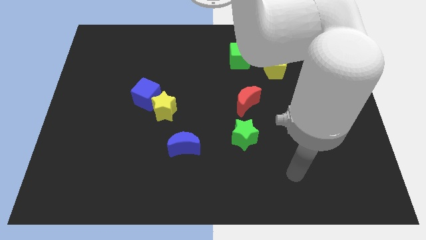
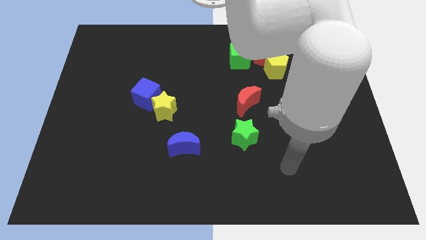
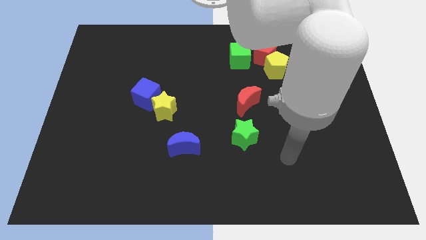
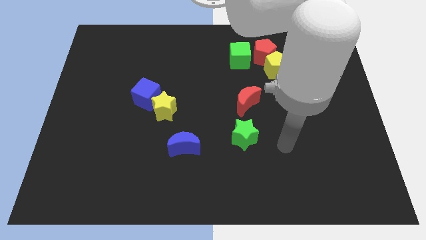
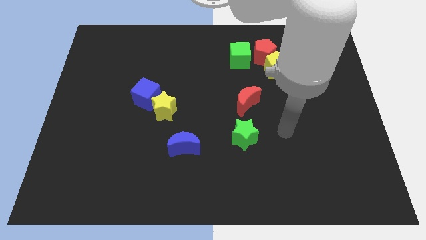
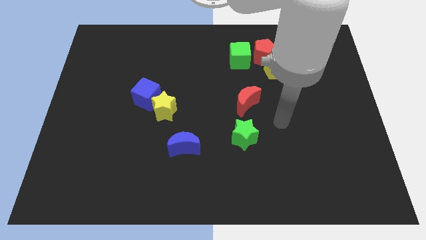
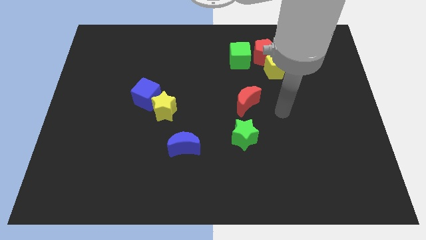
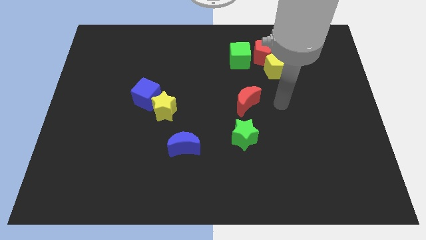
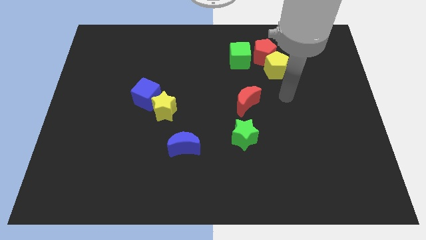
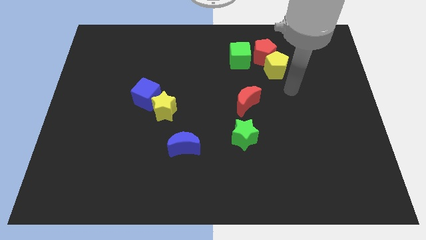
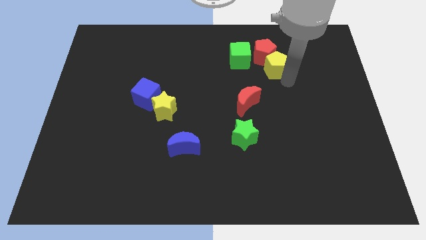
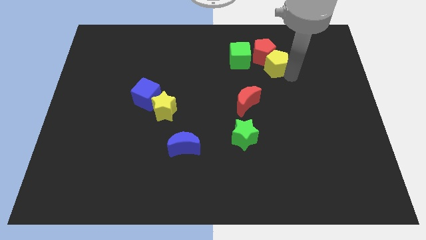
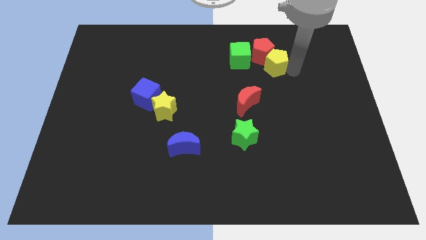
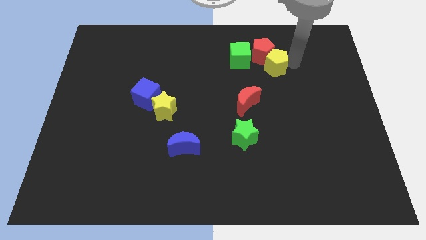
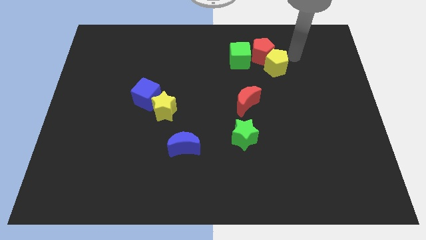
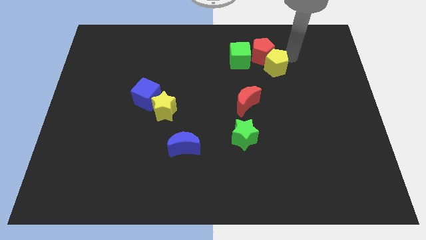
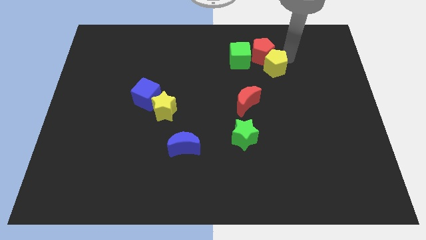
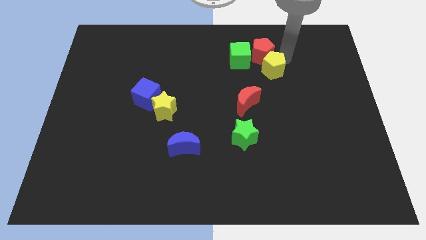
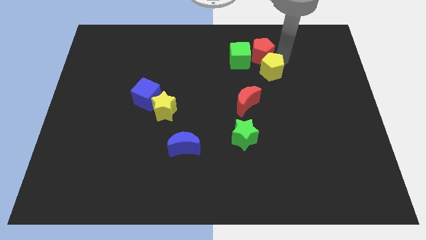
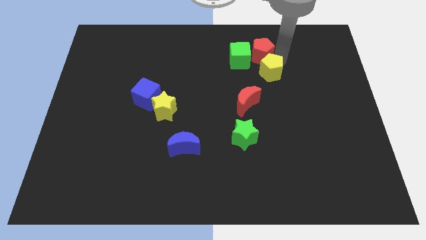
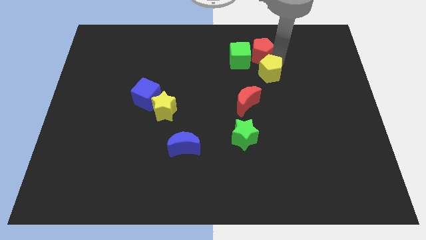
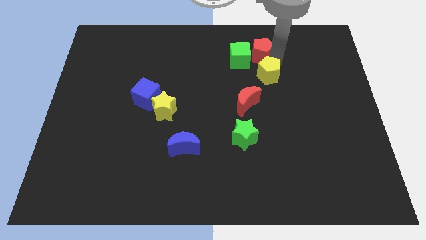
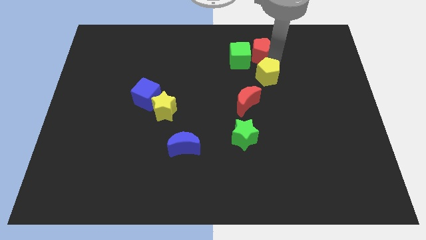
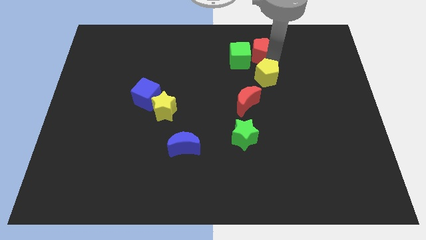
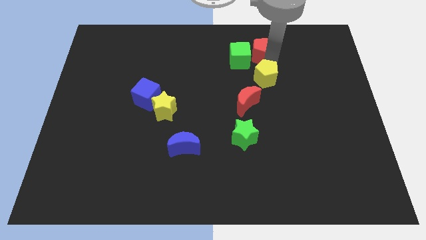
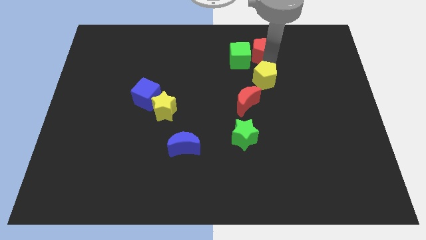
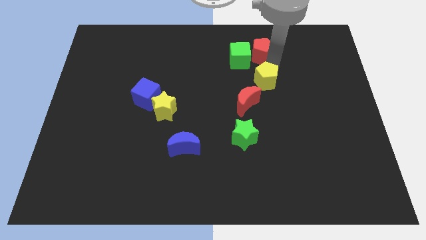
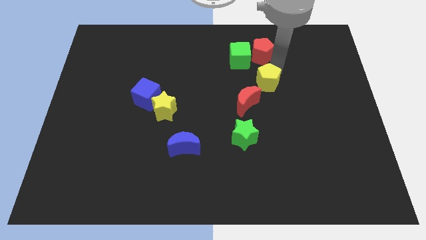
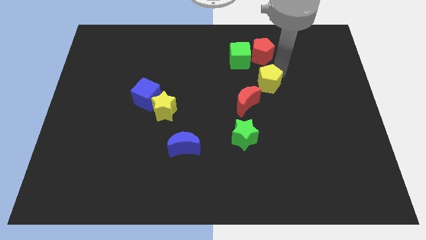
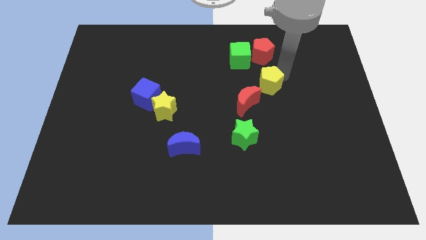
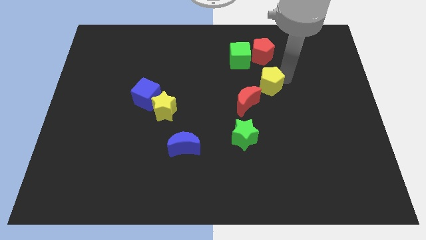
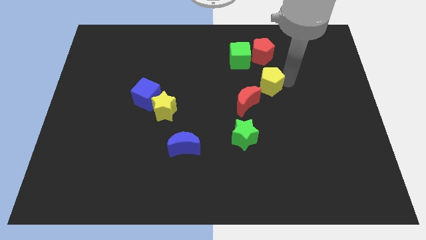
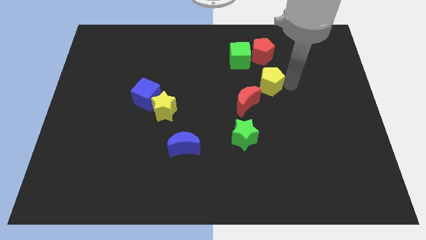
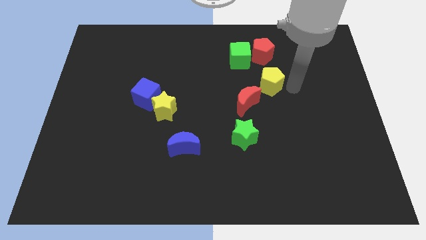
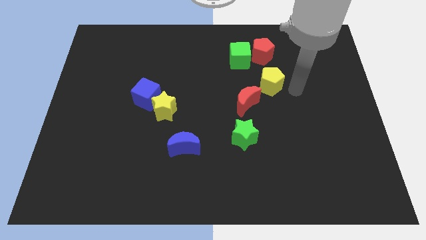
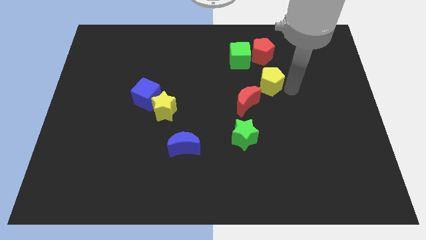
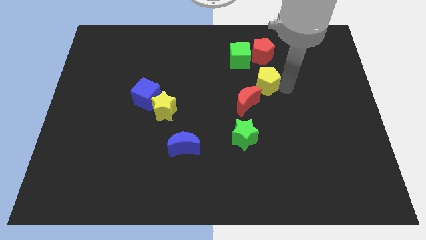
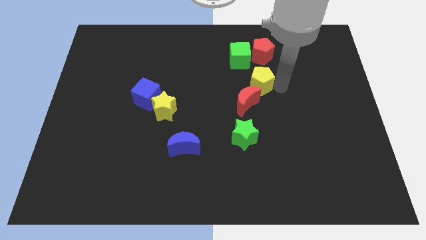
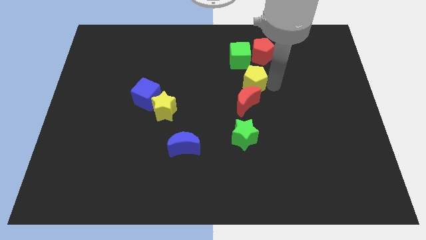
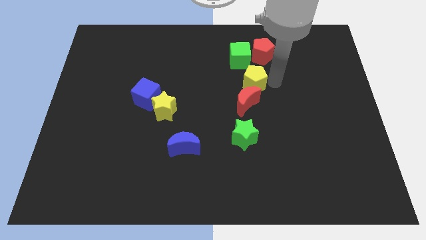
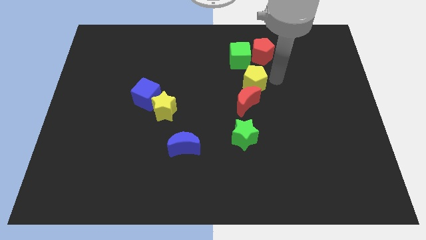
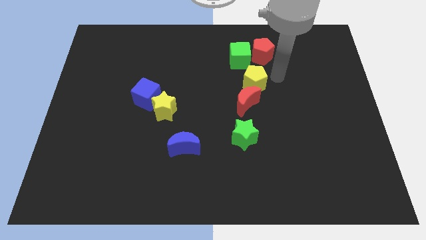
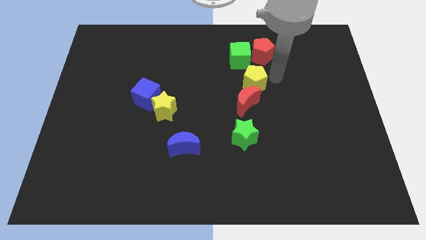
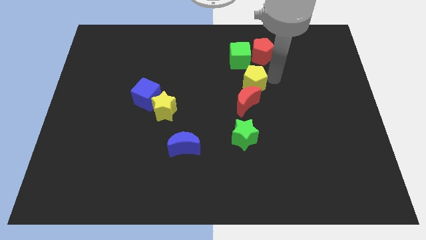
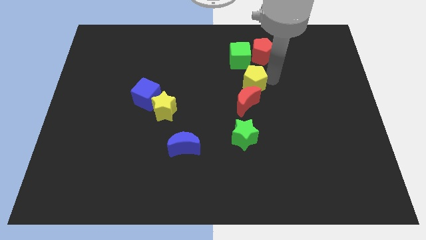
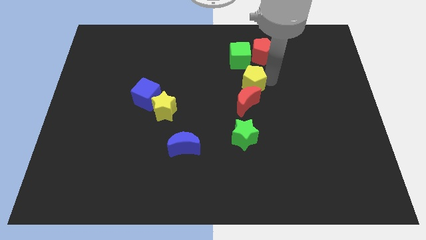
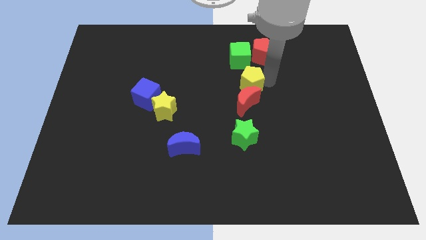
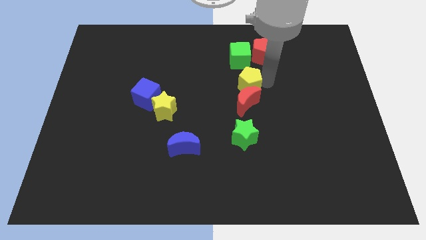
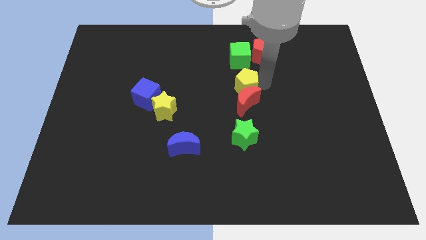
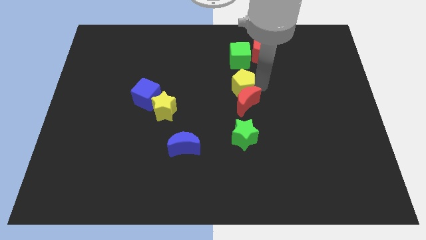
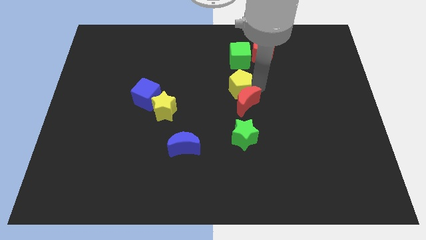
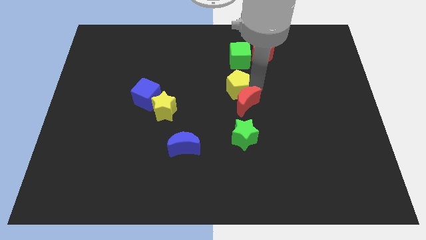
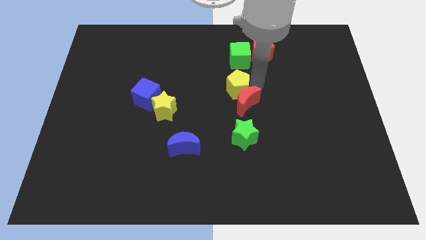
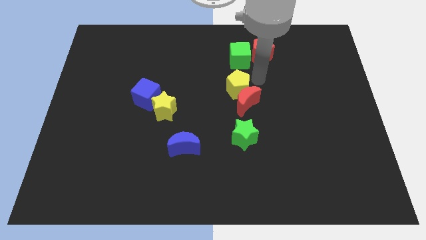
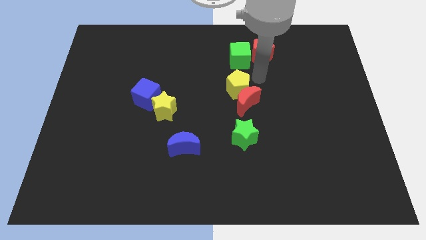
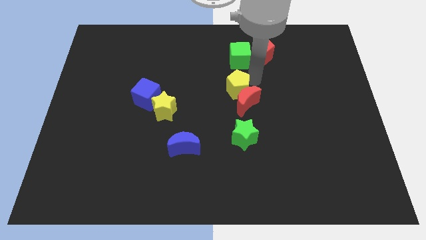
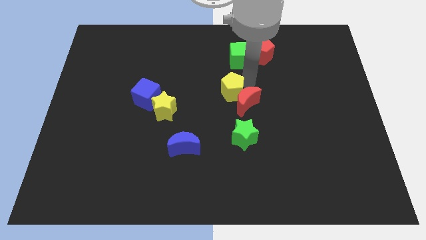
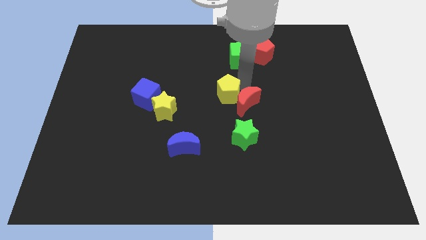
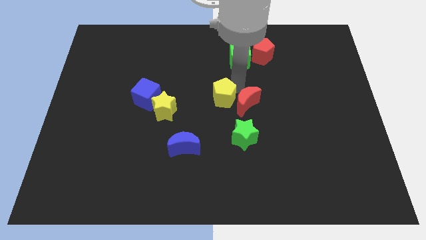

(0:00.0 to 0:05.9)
put the yellow pentagon to the right side of the yellow star

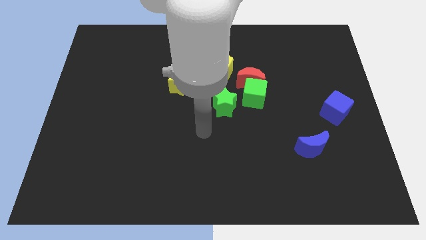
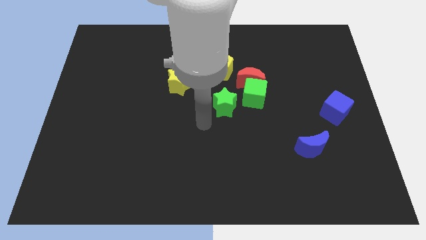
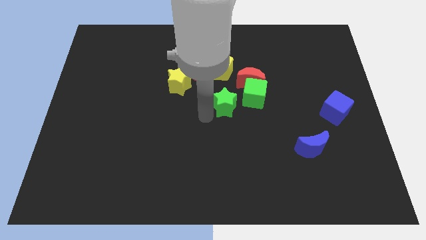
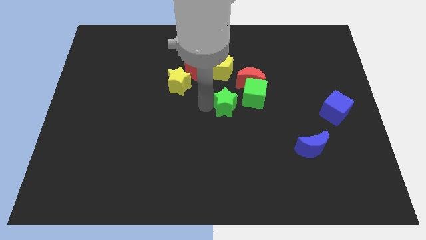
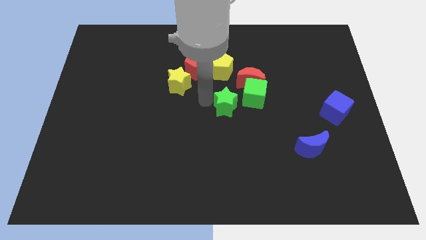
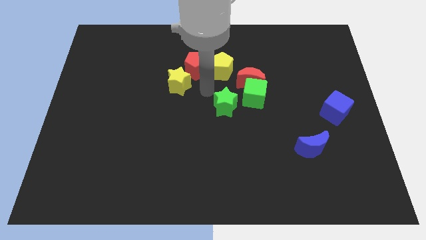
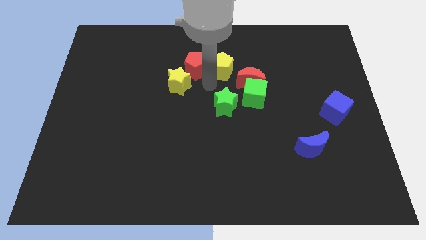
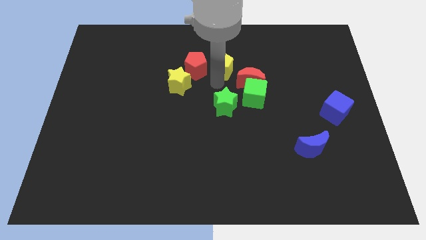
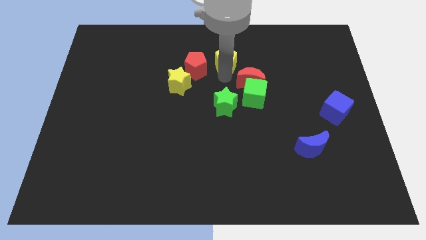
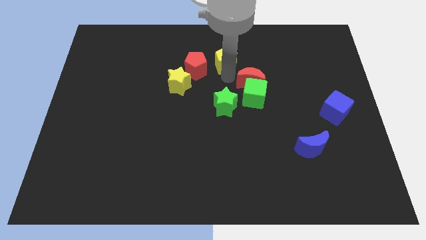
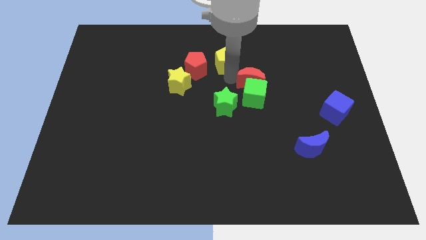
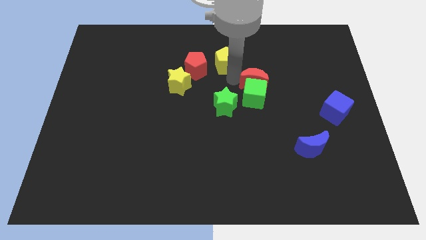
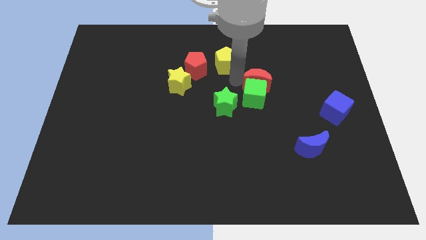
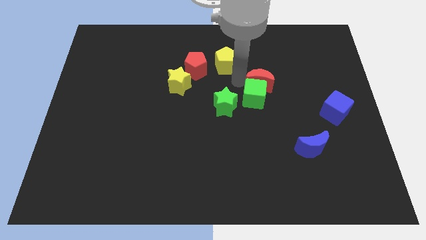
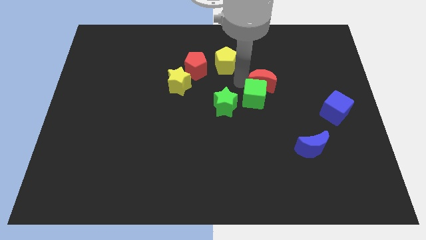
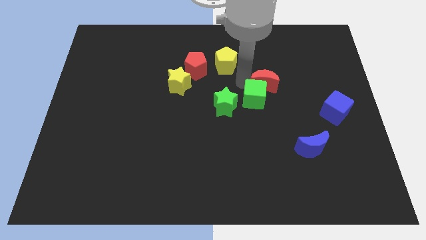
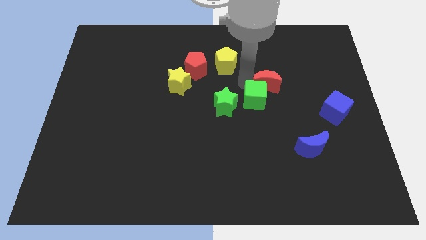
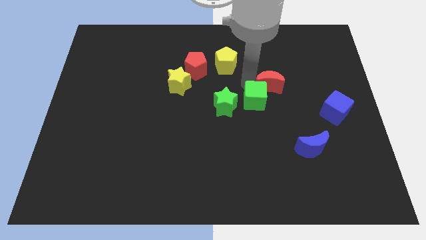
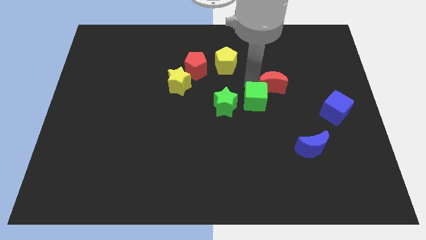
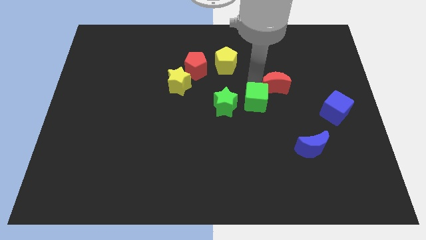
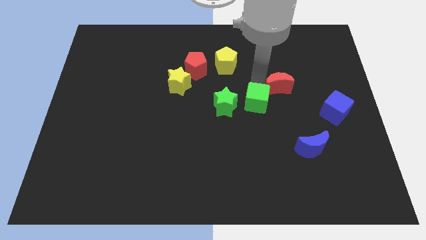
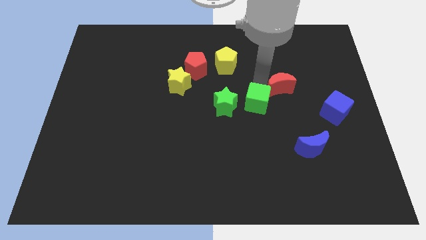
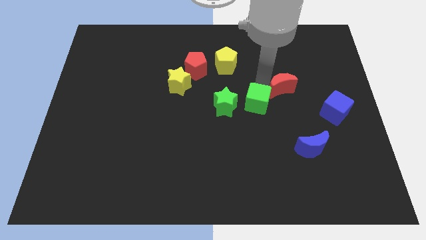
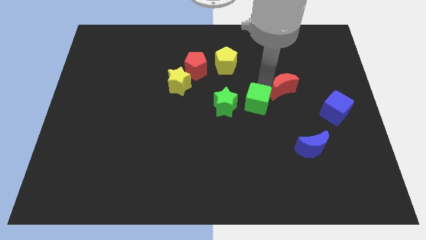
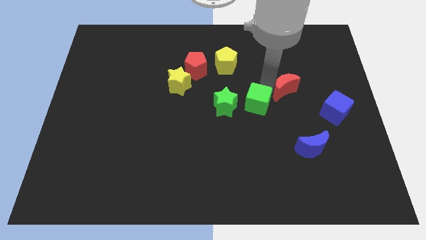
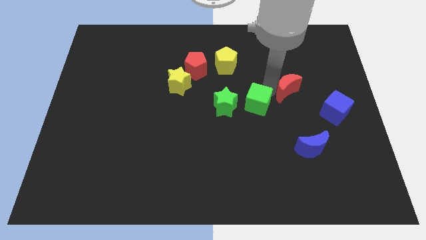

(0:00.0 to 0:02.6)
put the red moon diagonally up and to the left of the blue cube
